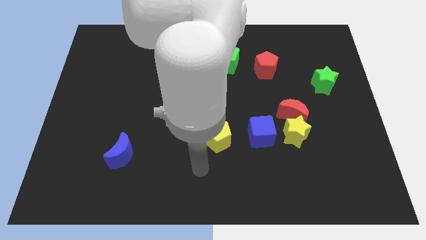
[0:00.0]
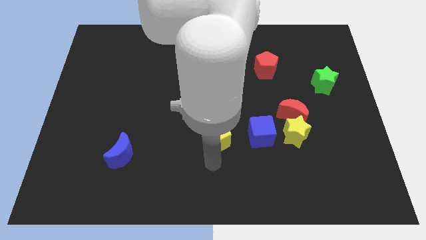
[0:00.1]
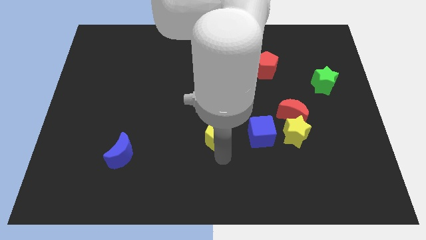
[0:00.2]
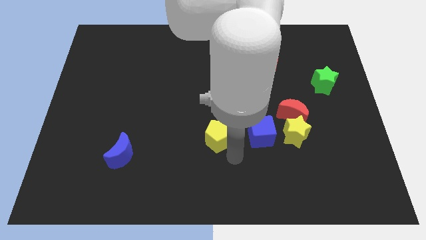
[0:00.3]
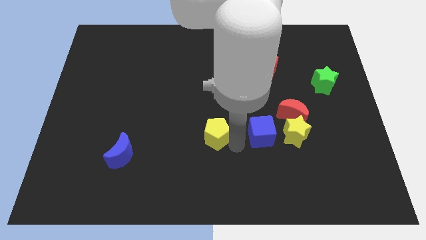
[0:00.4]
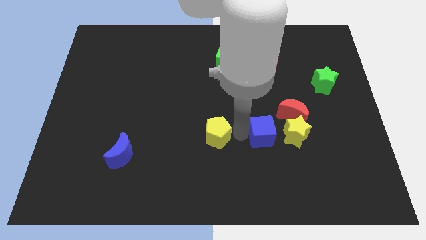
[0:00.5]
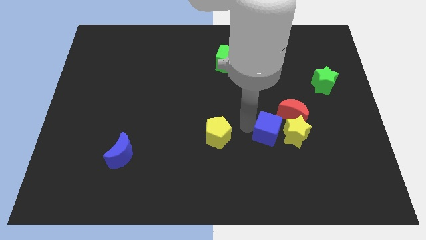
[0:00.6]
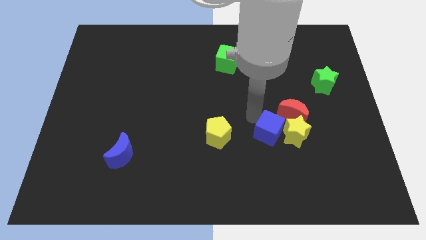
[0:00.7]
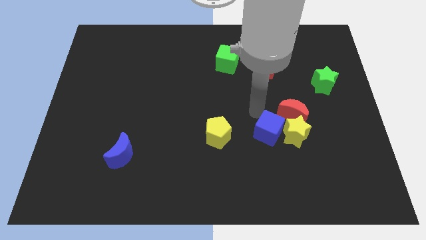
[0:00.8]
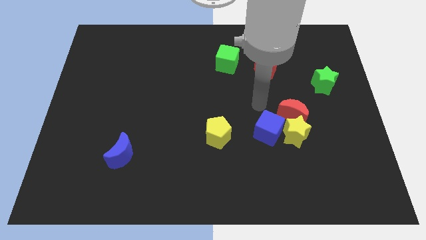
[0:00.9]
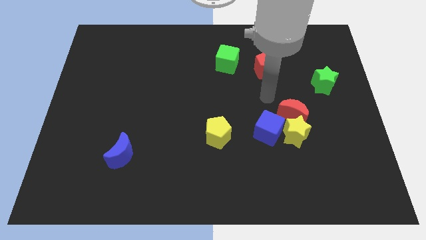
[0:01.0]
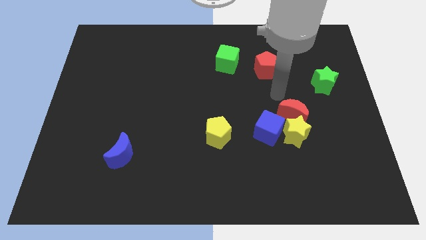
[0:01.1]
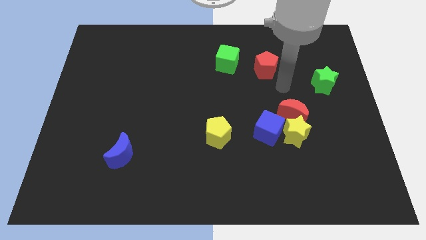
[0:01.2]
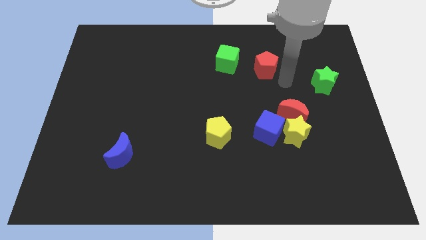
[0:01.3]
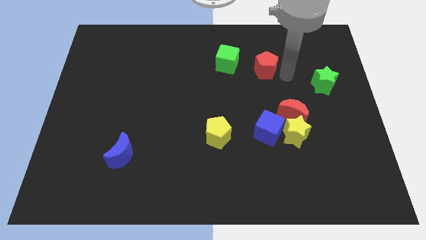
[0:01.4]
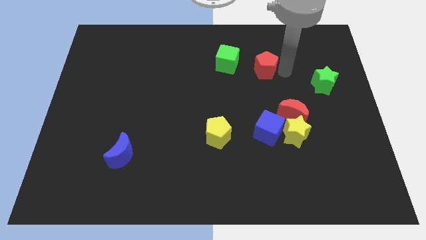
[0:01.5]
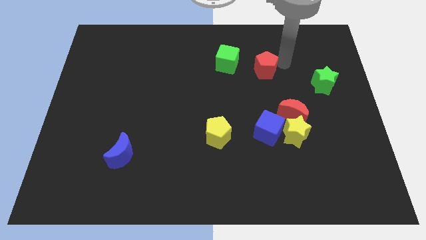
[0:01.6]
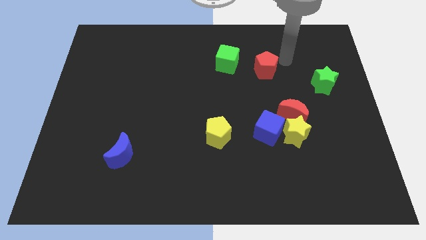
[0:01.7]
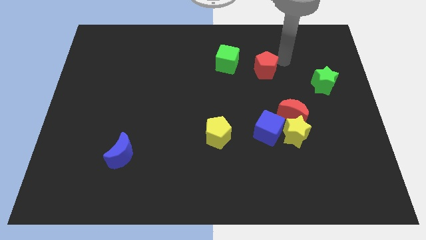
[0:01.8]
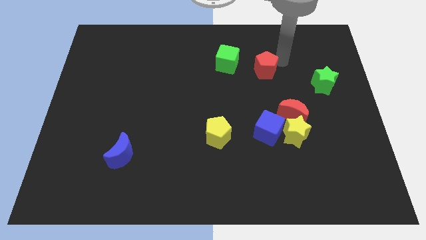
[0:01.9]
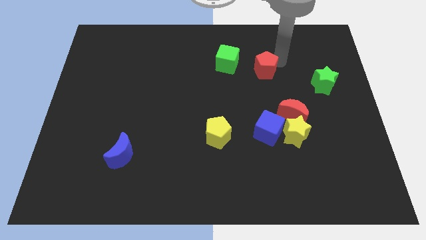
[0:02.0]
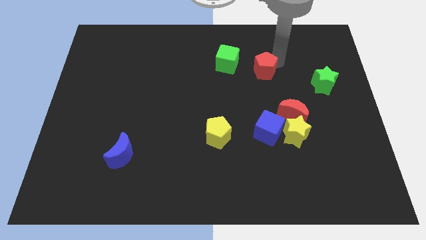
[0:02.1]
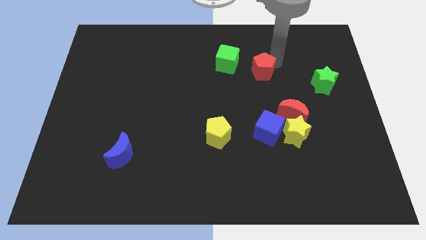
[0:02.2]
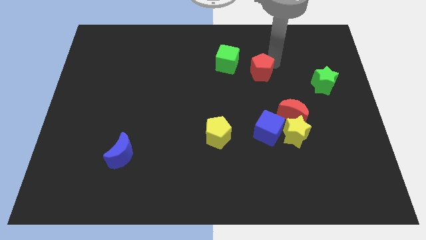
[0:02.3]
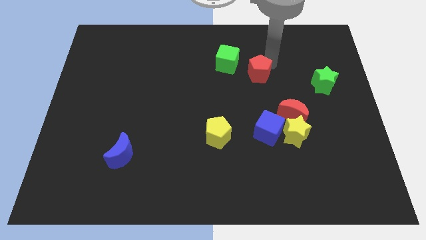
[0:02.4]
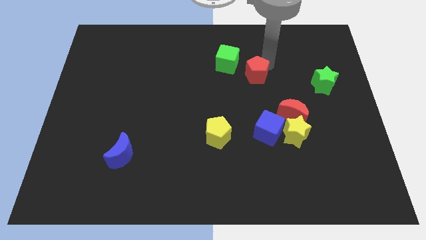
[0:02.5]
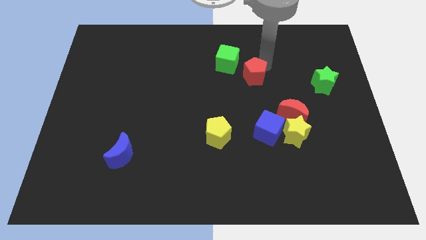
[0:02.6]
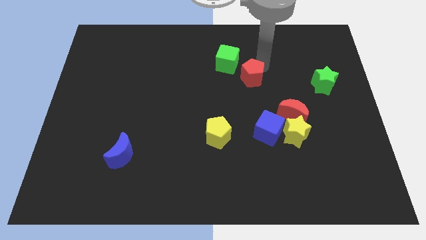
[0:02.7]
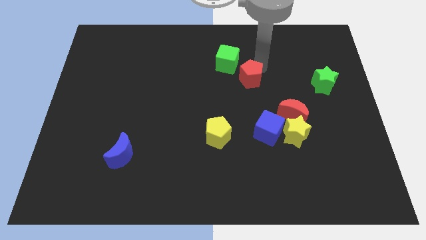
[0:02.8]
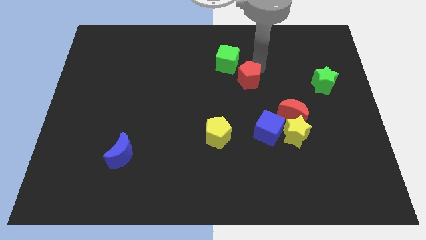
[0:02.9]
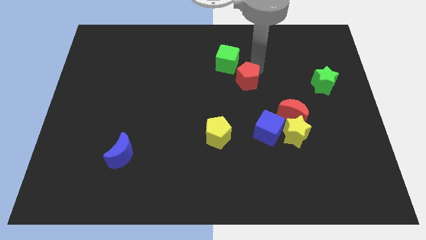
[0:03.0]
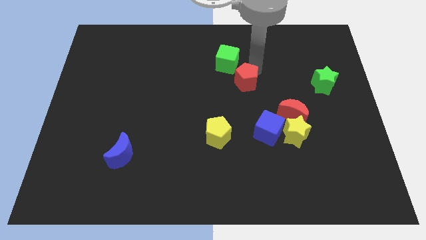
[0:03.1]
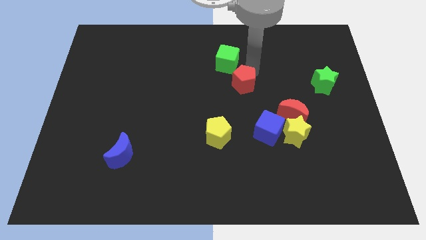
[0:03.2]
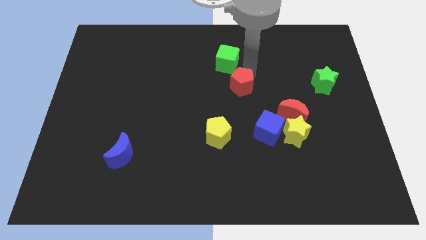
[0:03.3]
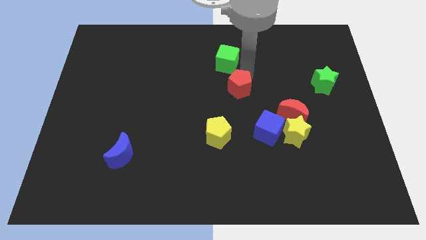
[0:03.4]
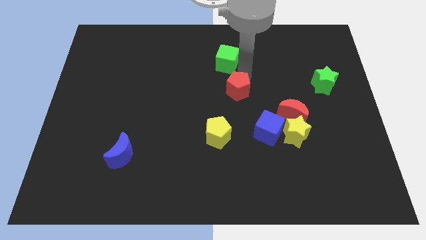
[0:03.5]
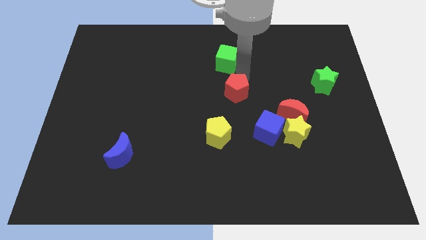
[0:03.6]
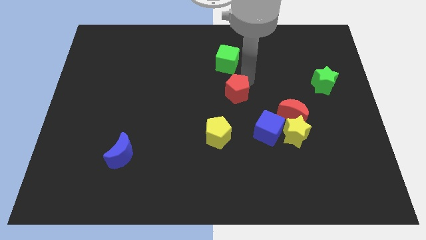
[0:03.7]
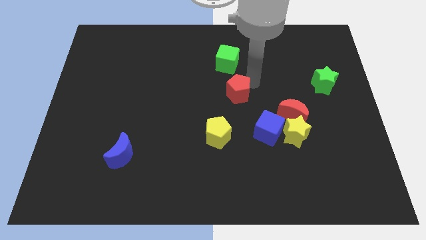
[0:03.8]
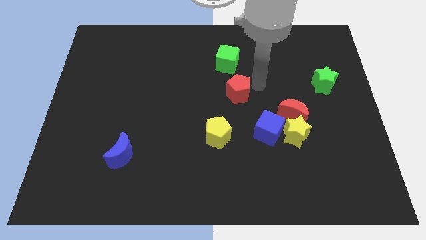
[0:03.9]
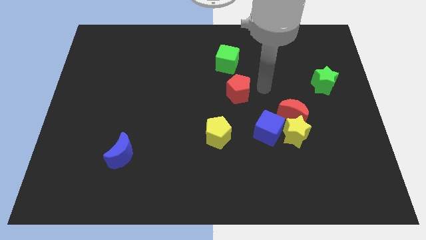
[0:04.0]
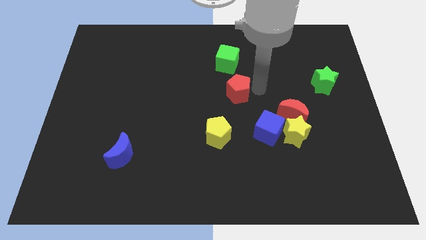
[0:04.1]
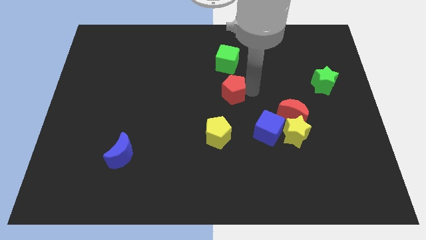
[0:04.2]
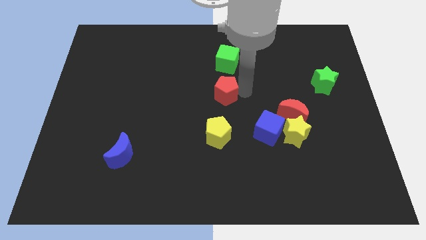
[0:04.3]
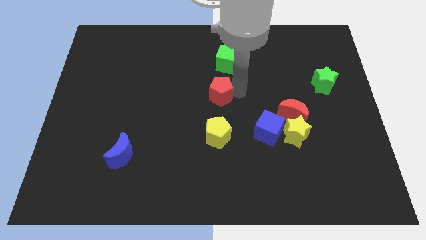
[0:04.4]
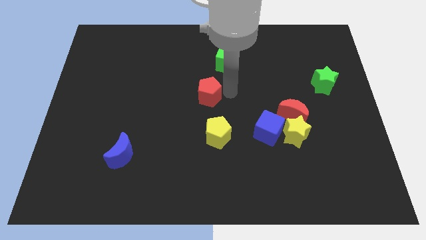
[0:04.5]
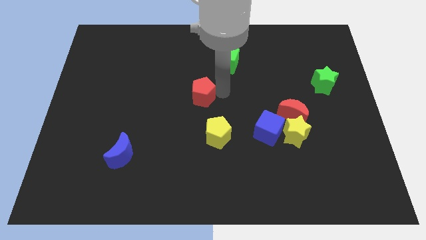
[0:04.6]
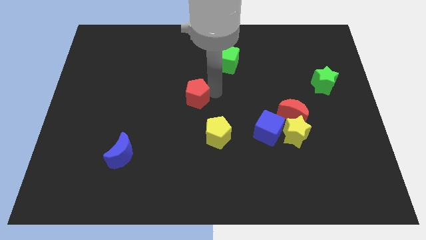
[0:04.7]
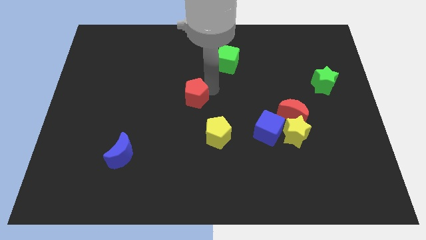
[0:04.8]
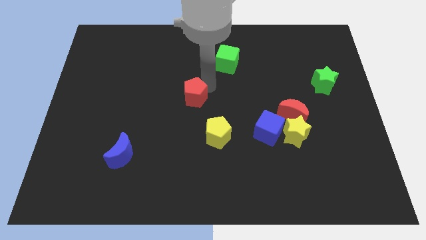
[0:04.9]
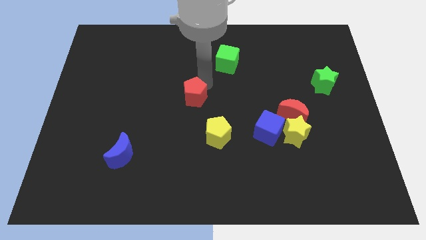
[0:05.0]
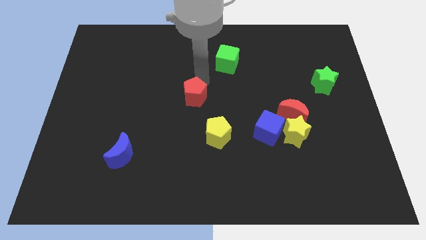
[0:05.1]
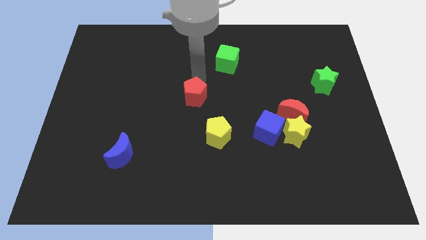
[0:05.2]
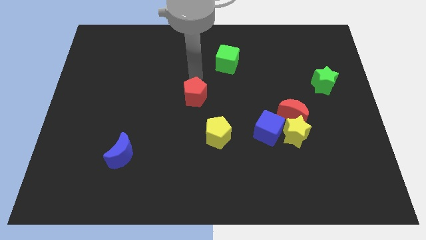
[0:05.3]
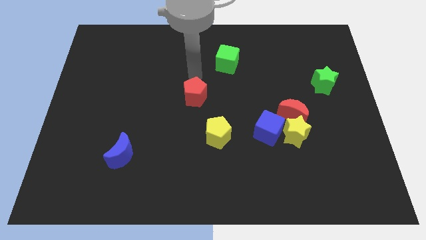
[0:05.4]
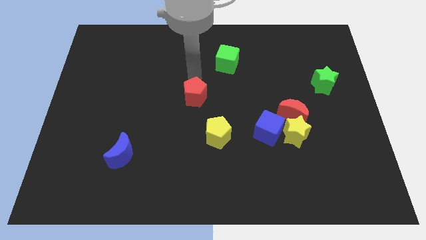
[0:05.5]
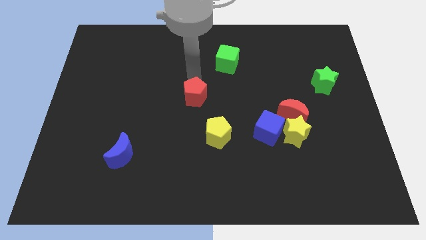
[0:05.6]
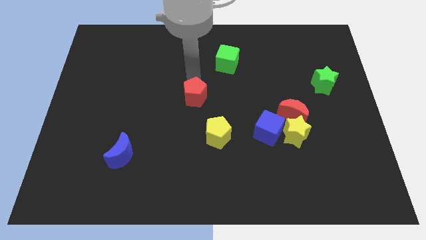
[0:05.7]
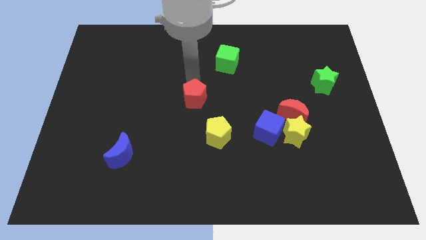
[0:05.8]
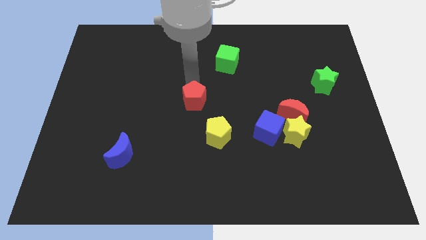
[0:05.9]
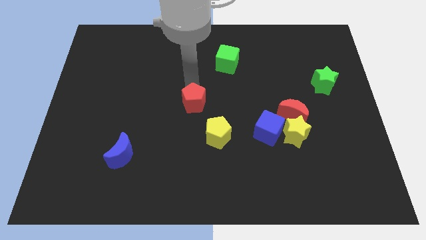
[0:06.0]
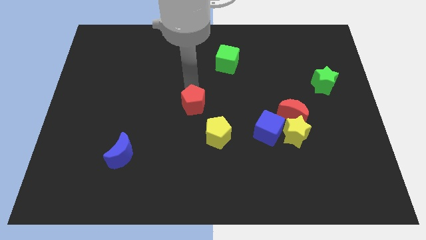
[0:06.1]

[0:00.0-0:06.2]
move the red pentagon down and then left

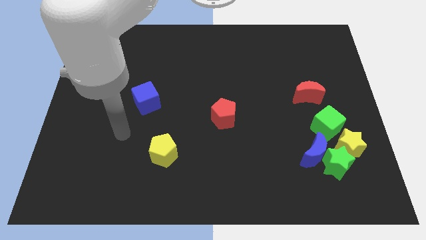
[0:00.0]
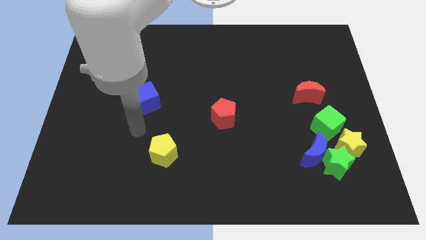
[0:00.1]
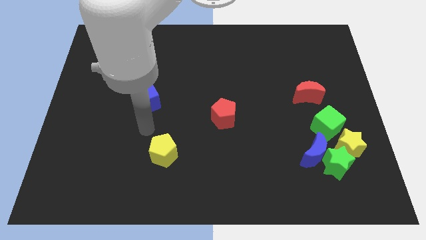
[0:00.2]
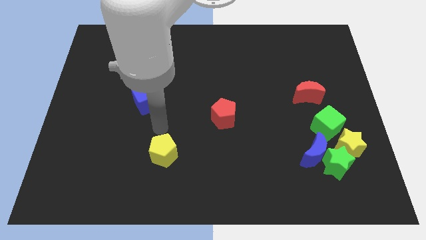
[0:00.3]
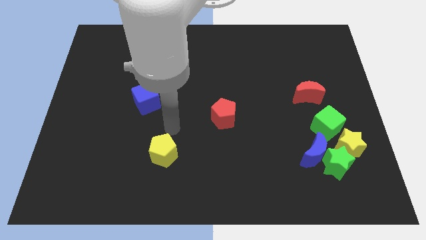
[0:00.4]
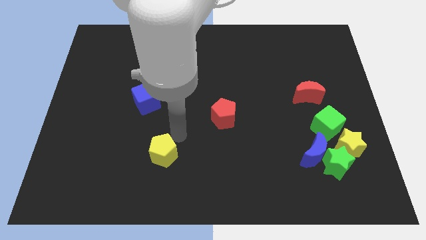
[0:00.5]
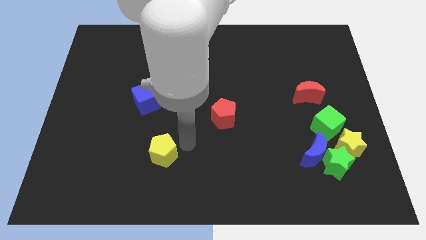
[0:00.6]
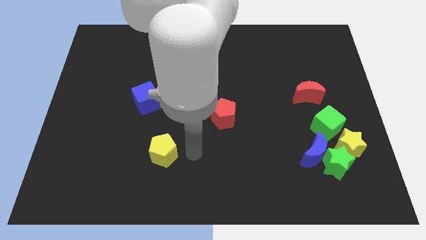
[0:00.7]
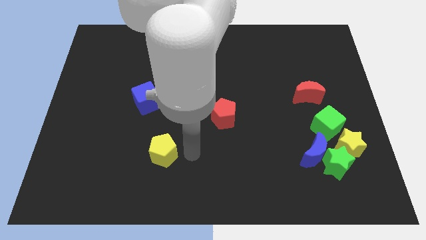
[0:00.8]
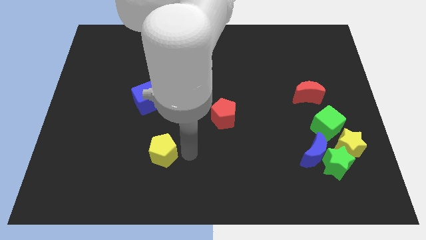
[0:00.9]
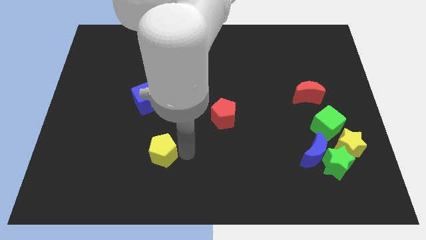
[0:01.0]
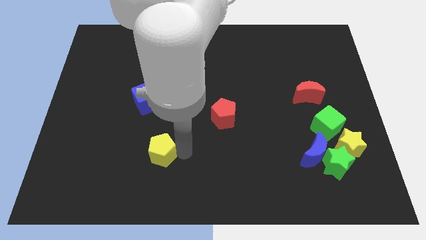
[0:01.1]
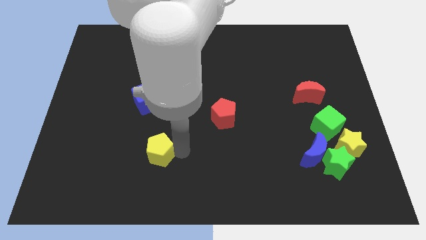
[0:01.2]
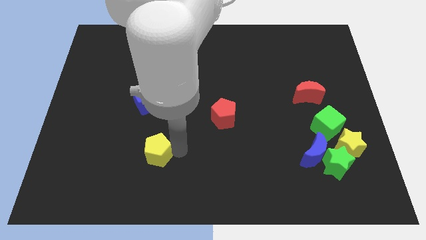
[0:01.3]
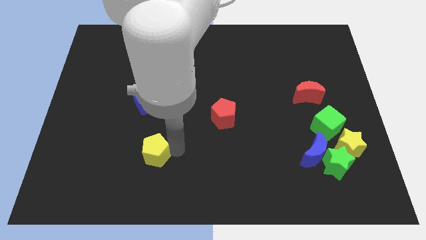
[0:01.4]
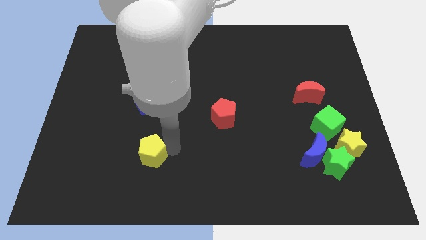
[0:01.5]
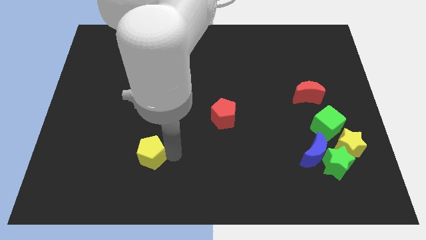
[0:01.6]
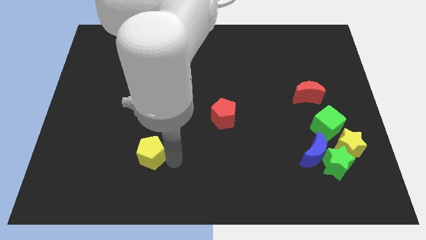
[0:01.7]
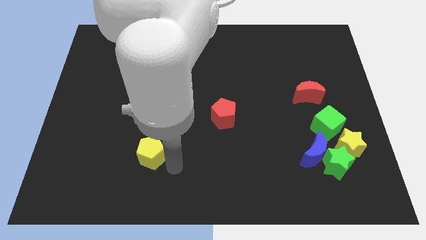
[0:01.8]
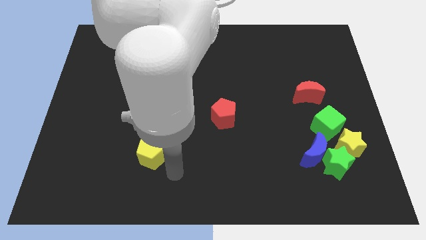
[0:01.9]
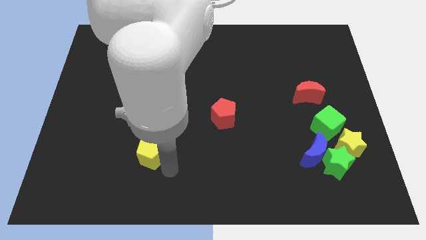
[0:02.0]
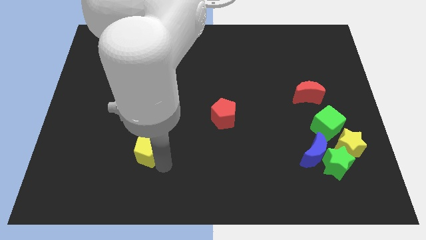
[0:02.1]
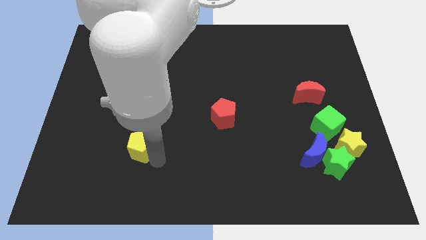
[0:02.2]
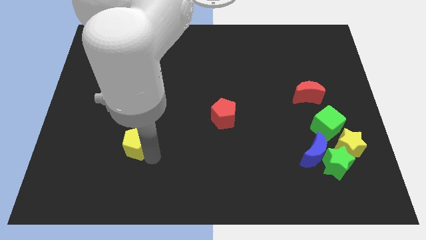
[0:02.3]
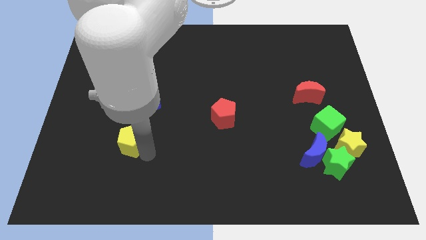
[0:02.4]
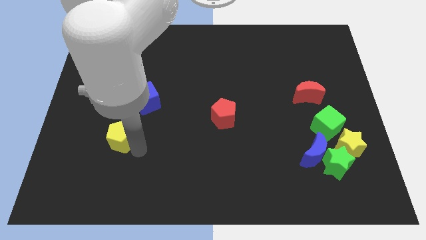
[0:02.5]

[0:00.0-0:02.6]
slide the yellow pentagon upwards and to the left a little

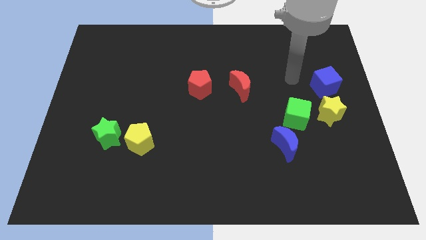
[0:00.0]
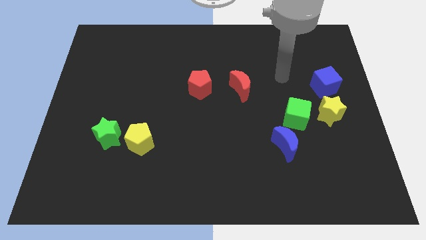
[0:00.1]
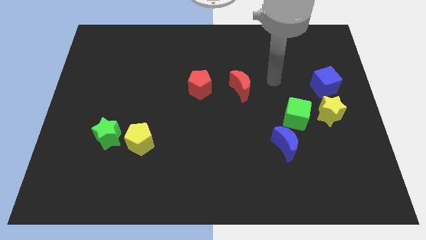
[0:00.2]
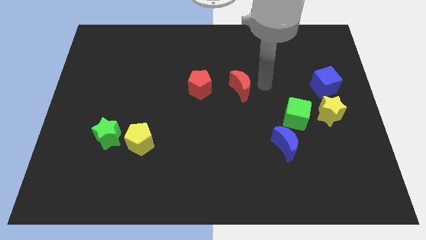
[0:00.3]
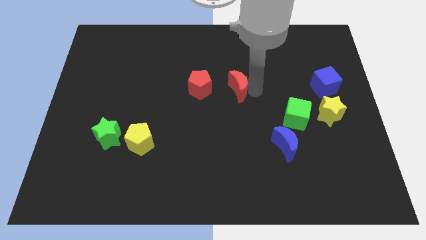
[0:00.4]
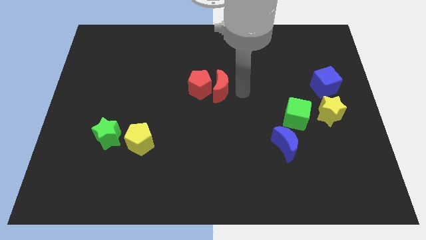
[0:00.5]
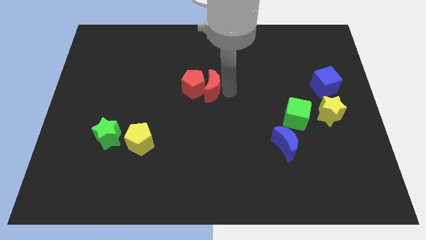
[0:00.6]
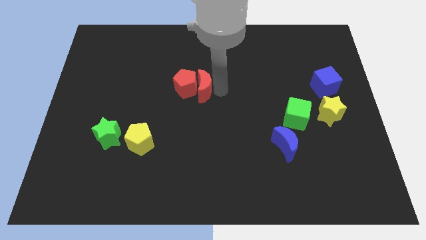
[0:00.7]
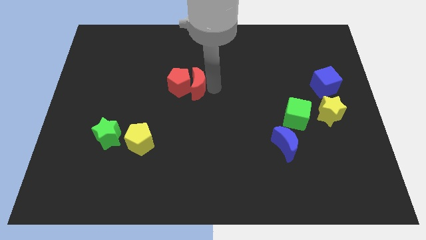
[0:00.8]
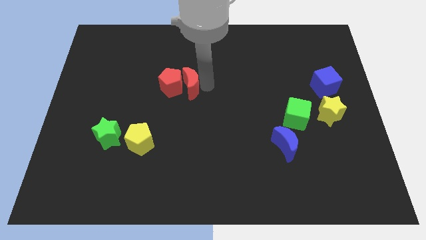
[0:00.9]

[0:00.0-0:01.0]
slightly push the red pentagon left
